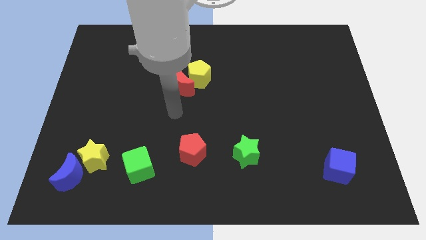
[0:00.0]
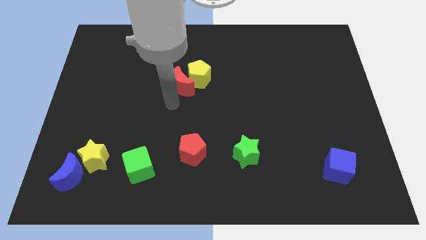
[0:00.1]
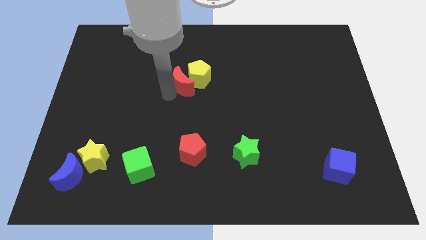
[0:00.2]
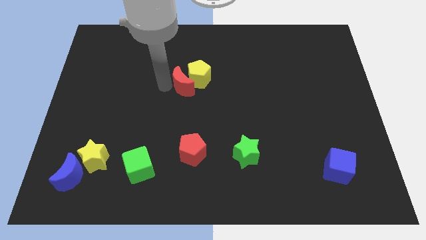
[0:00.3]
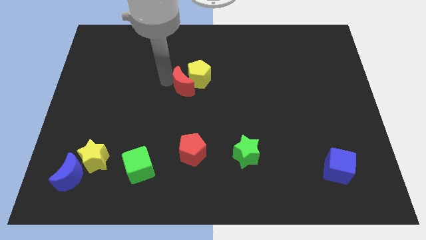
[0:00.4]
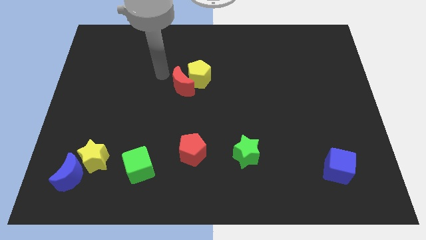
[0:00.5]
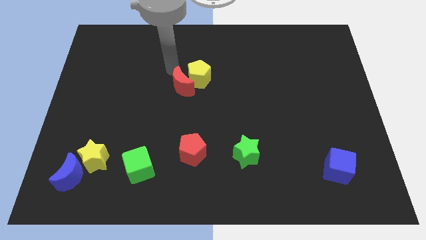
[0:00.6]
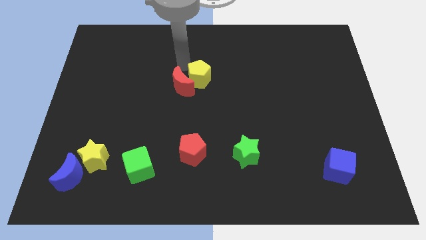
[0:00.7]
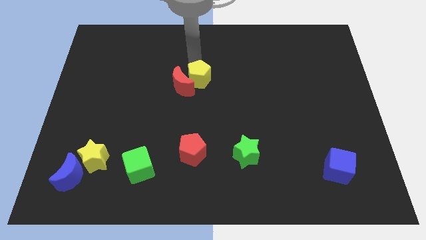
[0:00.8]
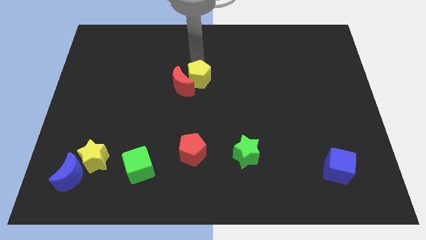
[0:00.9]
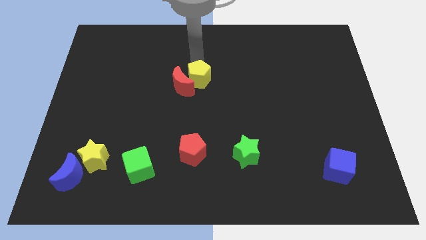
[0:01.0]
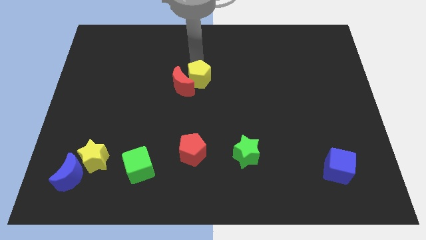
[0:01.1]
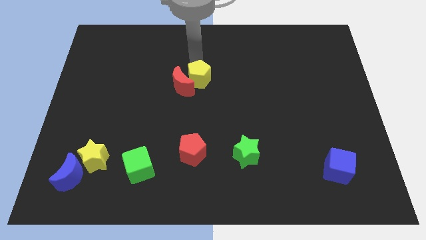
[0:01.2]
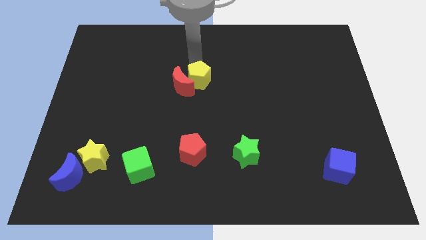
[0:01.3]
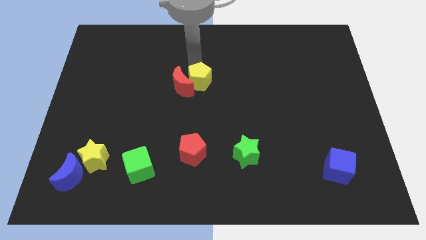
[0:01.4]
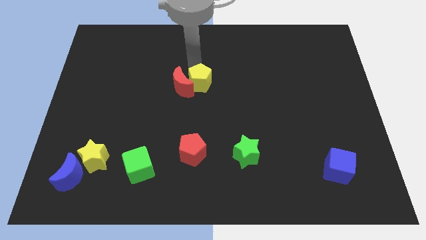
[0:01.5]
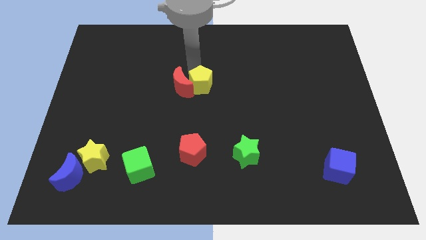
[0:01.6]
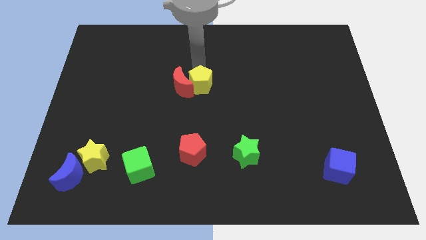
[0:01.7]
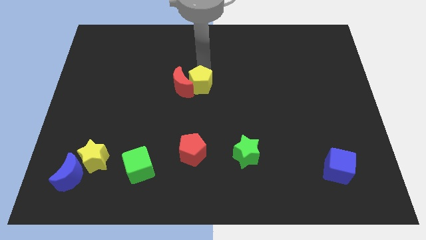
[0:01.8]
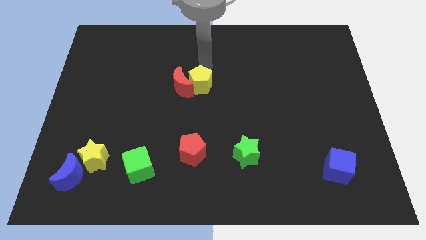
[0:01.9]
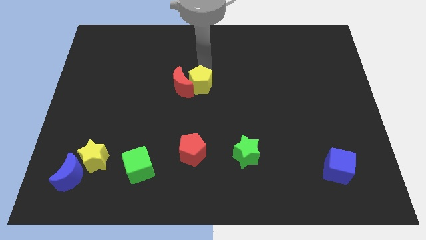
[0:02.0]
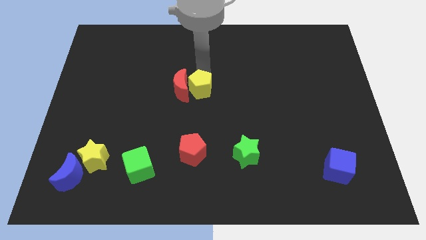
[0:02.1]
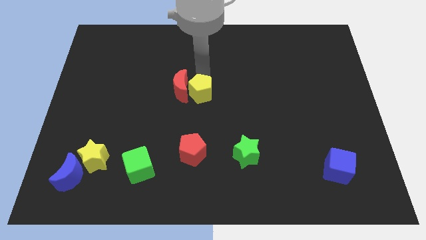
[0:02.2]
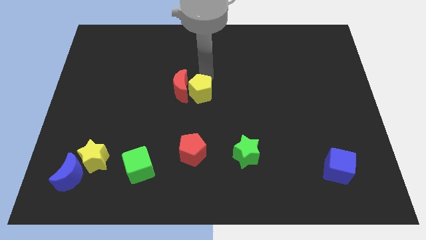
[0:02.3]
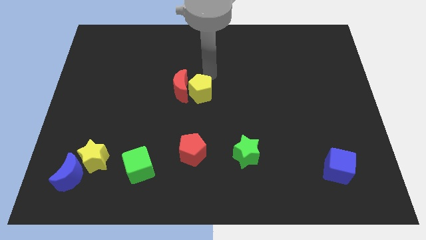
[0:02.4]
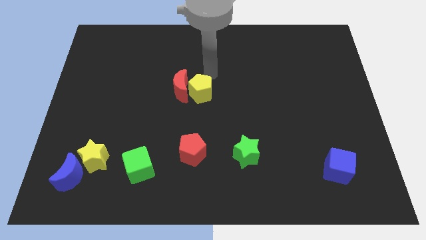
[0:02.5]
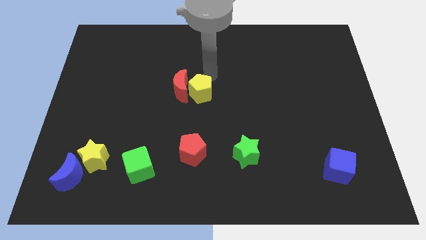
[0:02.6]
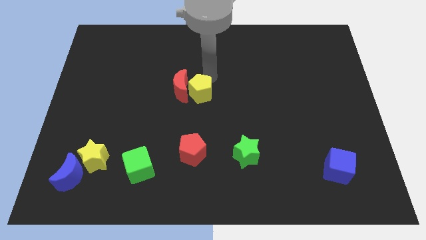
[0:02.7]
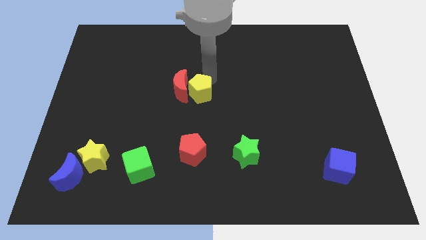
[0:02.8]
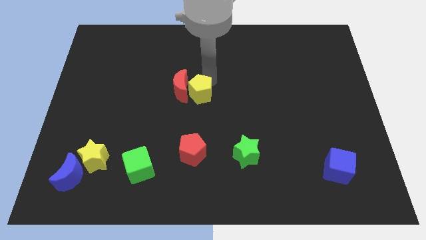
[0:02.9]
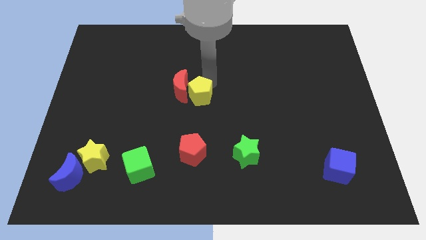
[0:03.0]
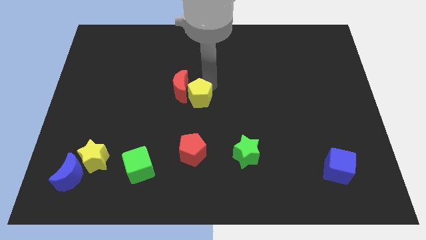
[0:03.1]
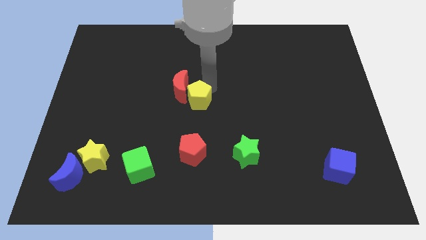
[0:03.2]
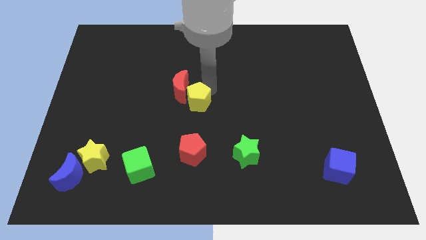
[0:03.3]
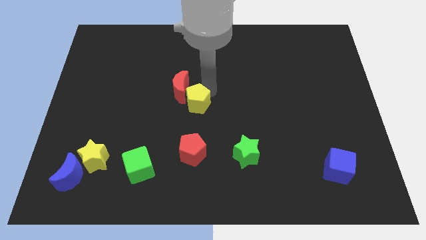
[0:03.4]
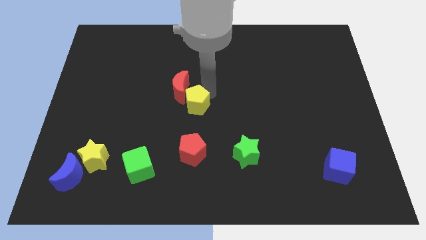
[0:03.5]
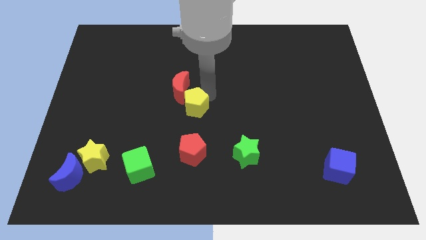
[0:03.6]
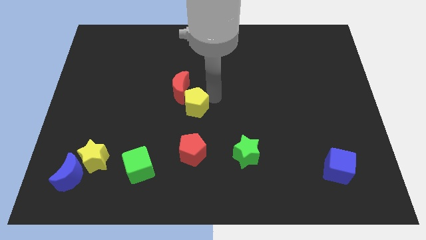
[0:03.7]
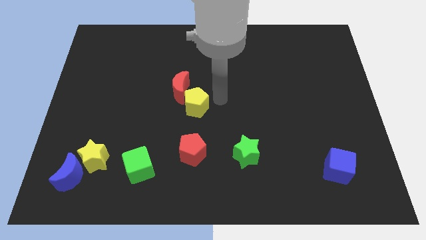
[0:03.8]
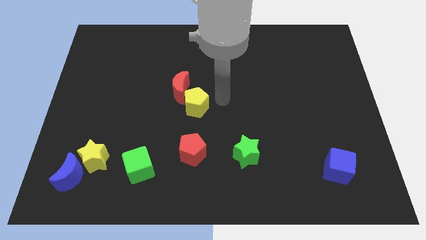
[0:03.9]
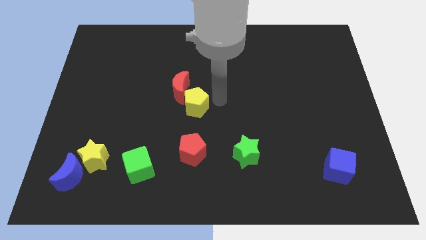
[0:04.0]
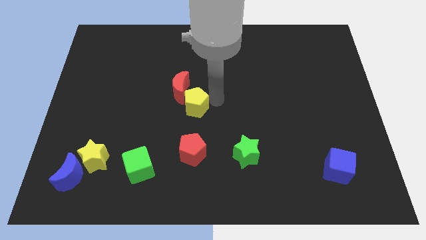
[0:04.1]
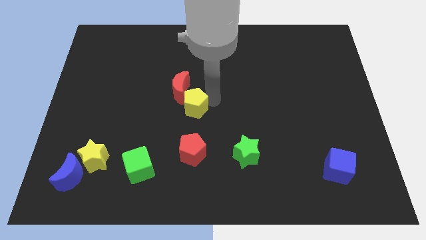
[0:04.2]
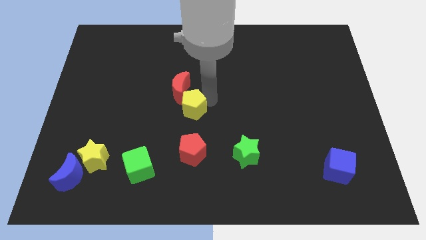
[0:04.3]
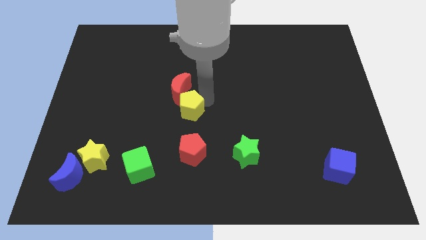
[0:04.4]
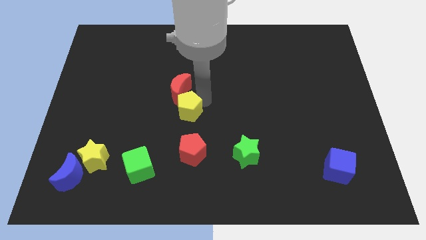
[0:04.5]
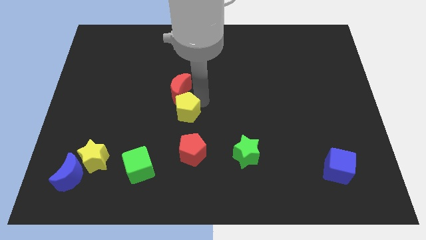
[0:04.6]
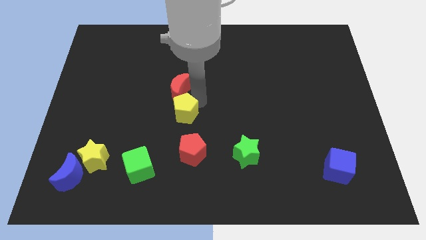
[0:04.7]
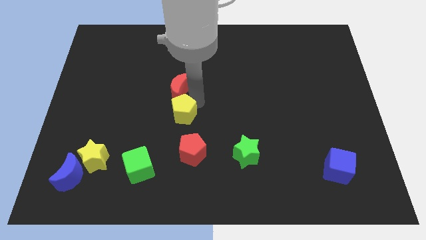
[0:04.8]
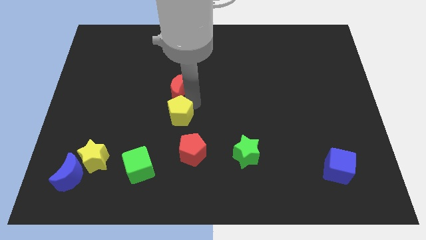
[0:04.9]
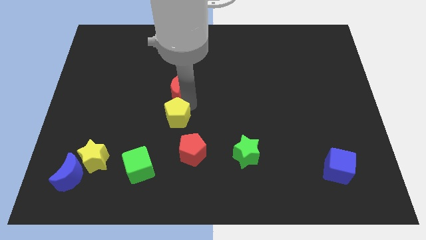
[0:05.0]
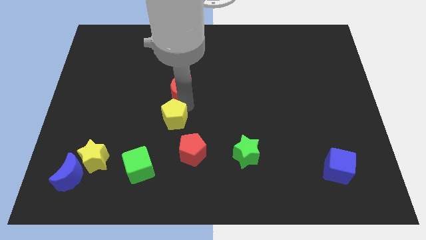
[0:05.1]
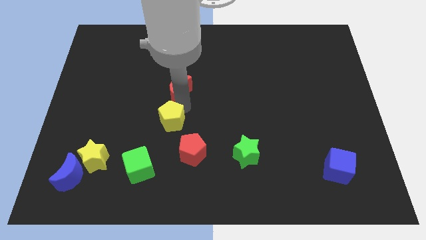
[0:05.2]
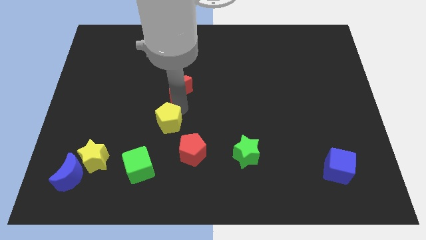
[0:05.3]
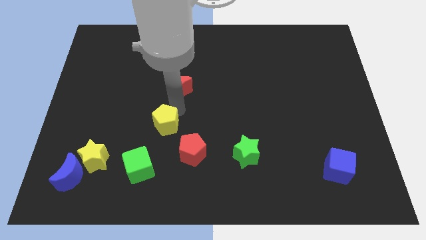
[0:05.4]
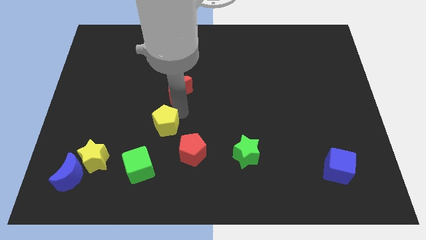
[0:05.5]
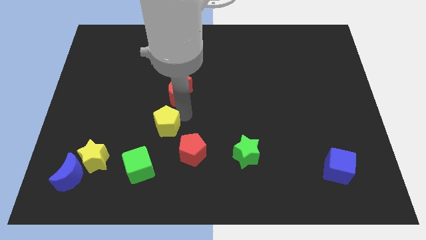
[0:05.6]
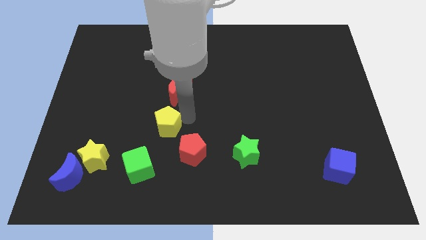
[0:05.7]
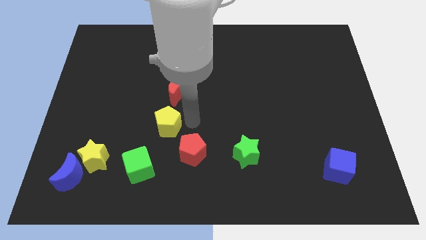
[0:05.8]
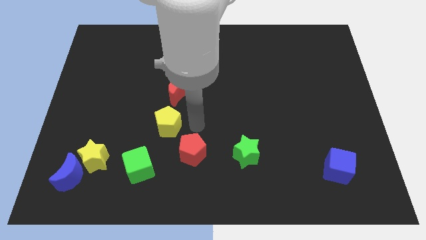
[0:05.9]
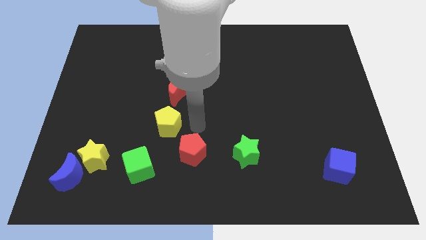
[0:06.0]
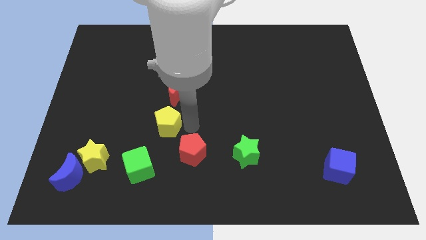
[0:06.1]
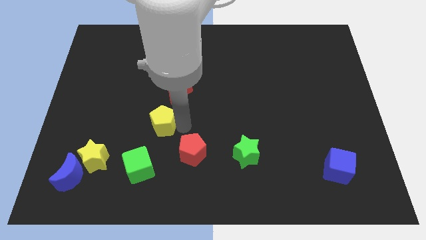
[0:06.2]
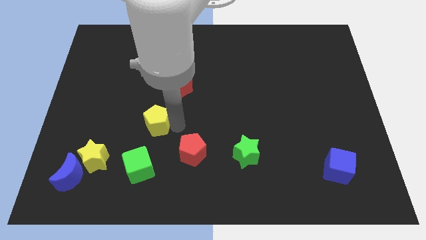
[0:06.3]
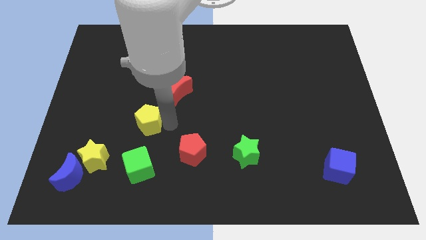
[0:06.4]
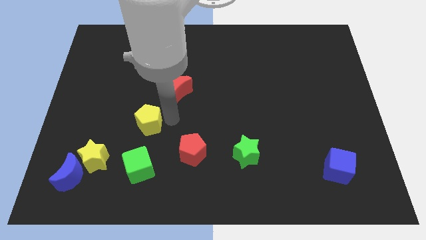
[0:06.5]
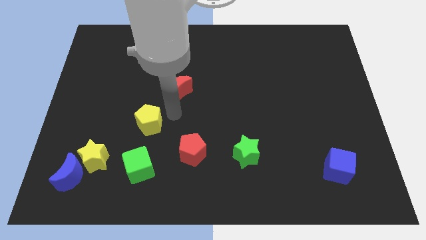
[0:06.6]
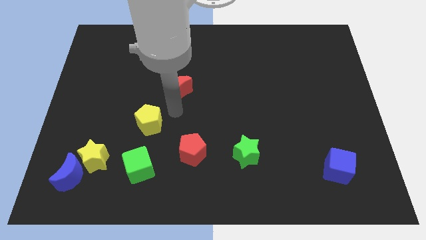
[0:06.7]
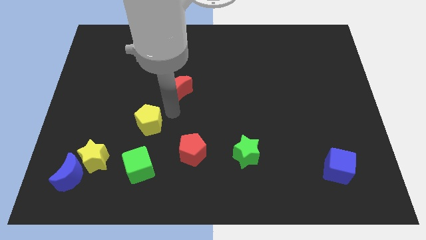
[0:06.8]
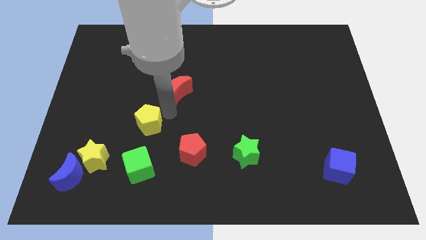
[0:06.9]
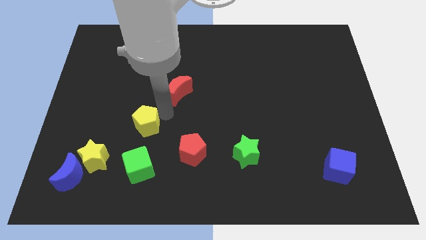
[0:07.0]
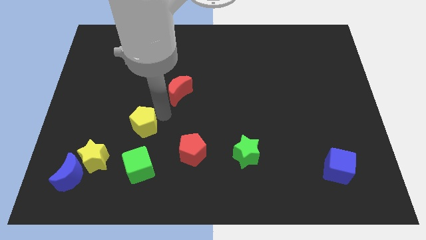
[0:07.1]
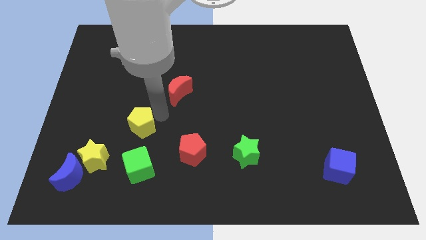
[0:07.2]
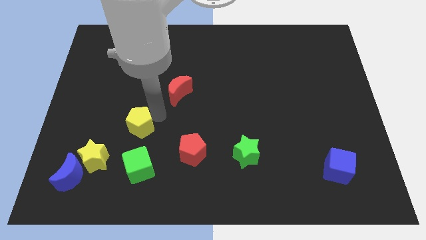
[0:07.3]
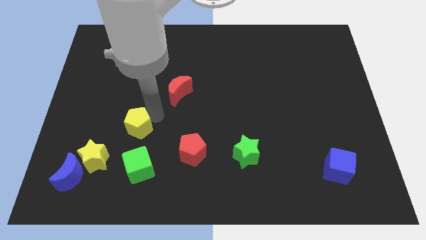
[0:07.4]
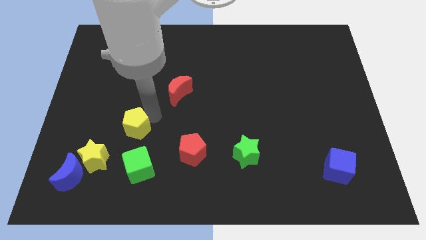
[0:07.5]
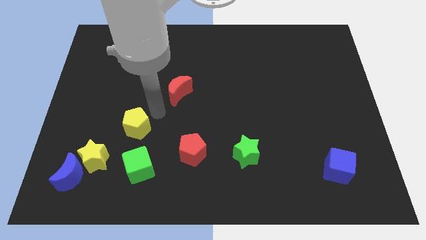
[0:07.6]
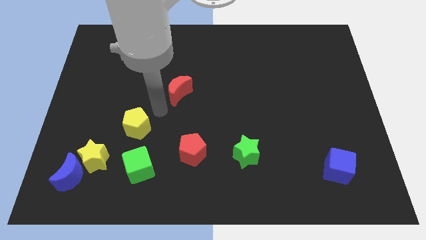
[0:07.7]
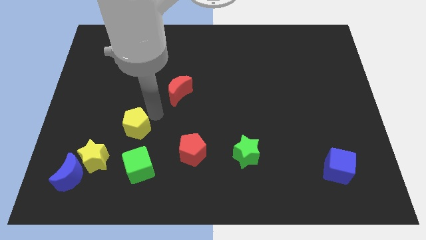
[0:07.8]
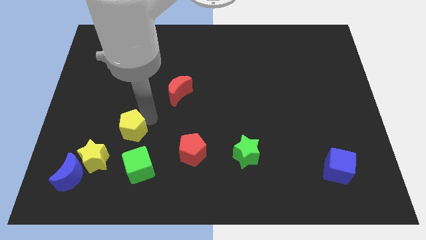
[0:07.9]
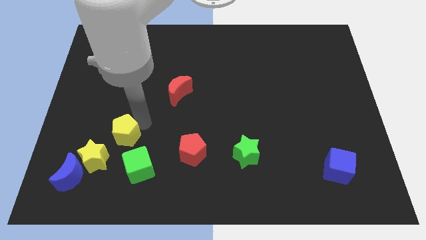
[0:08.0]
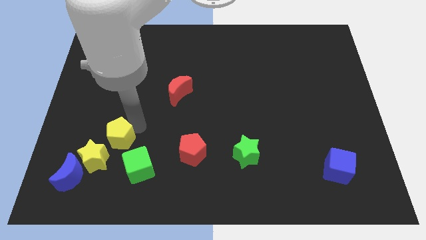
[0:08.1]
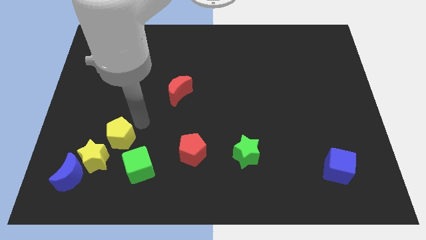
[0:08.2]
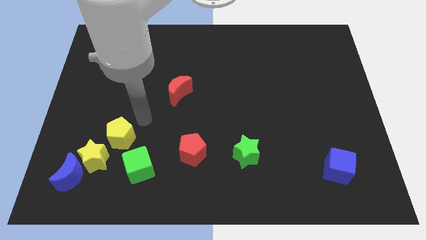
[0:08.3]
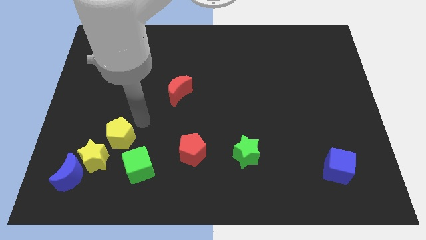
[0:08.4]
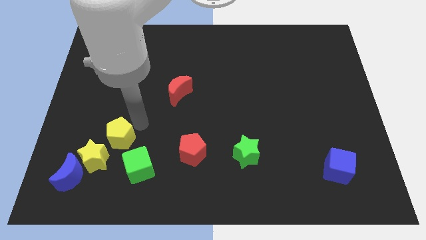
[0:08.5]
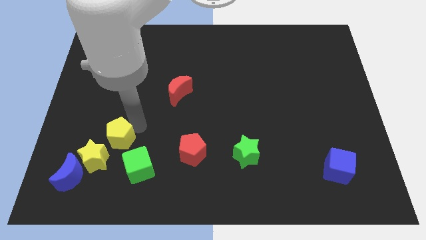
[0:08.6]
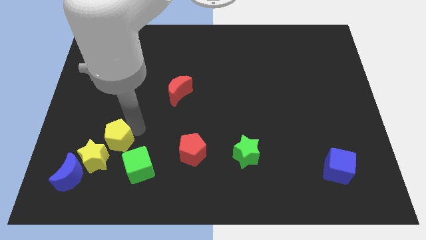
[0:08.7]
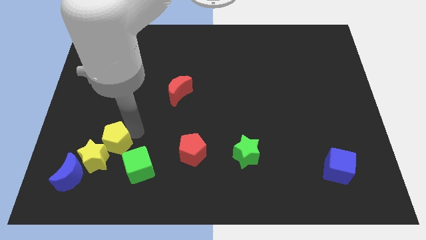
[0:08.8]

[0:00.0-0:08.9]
slide the yellow pentagon towards the yellow star
